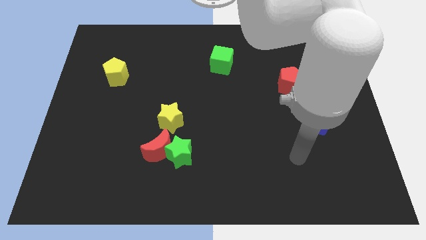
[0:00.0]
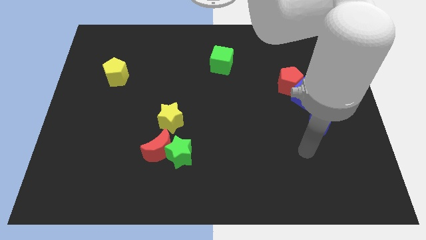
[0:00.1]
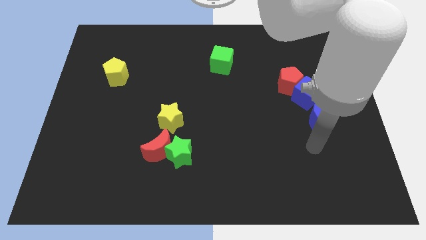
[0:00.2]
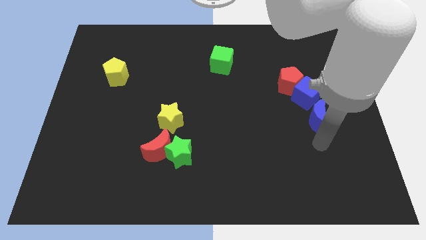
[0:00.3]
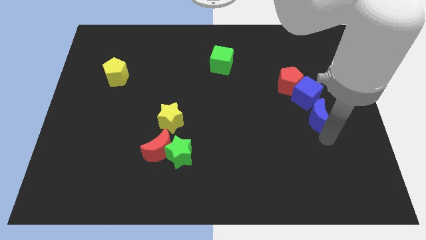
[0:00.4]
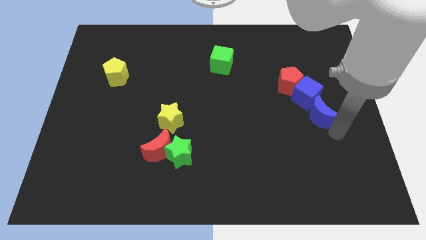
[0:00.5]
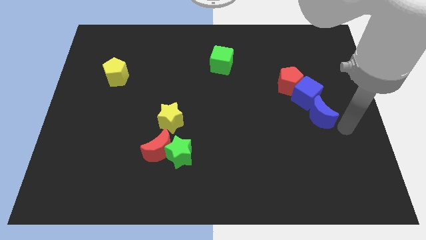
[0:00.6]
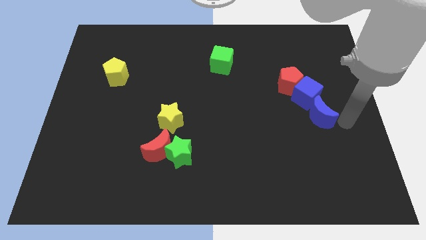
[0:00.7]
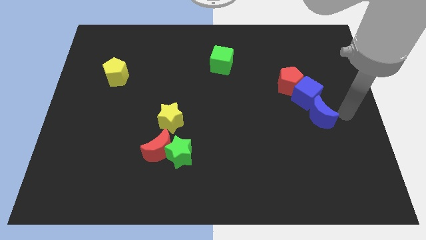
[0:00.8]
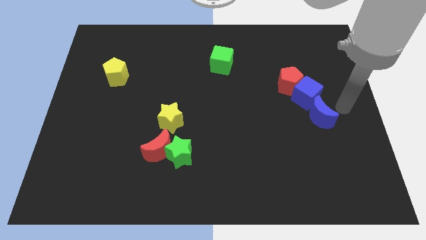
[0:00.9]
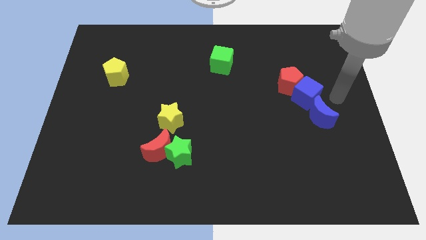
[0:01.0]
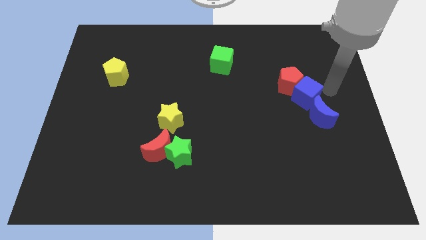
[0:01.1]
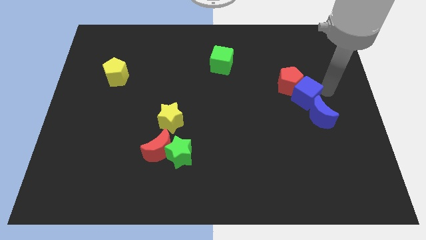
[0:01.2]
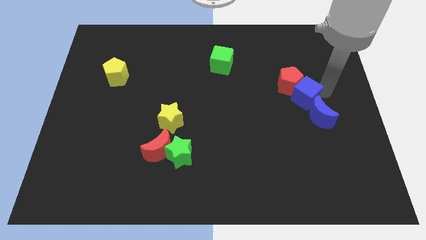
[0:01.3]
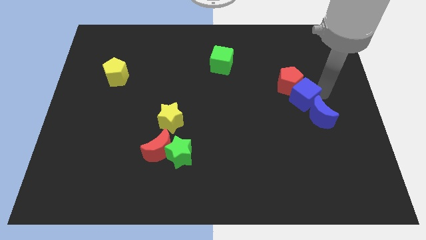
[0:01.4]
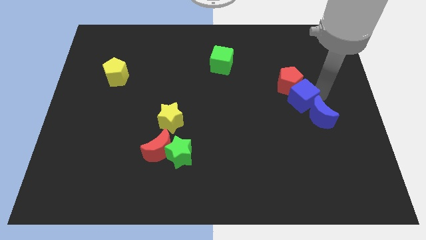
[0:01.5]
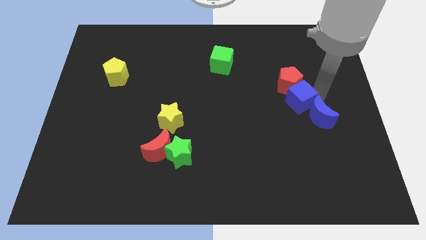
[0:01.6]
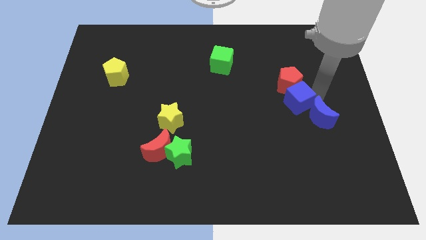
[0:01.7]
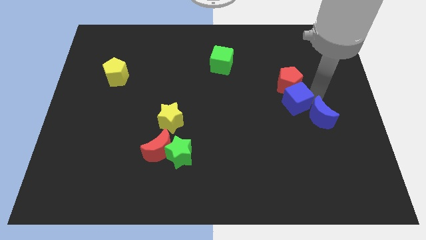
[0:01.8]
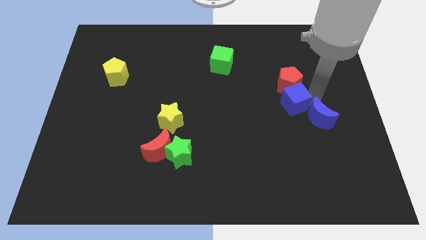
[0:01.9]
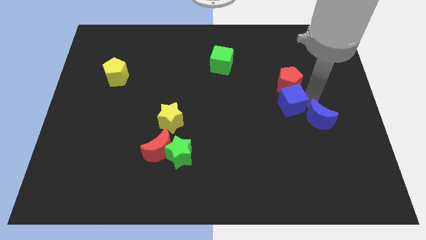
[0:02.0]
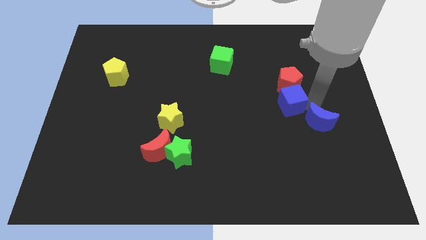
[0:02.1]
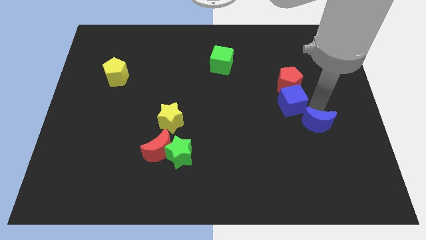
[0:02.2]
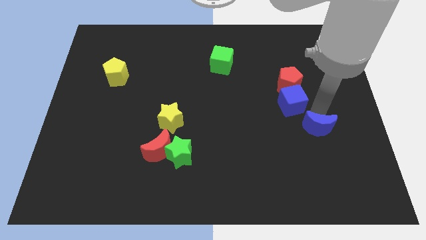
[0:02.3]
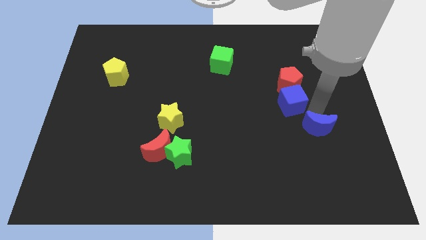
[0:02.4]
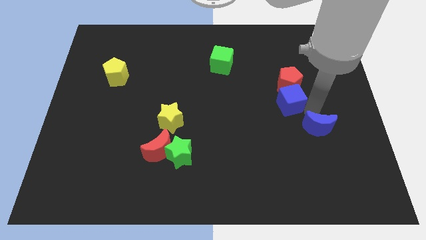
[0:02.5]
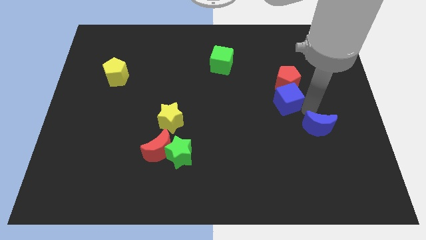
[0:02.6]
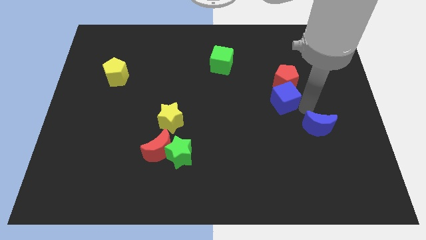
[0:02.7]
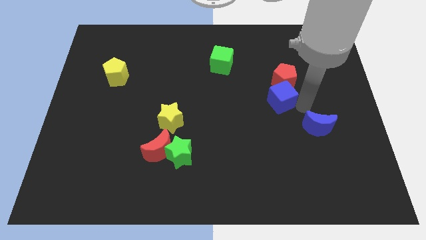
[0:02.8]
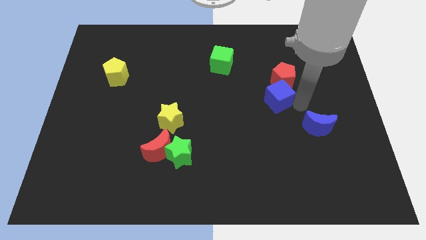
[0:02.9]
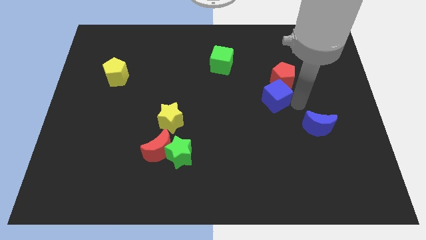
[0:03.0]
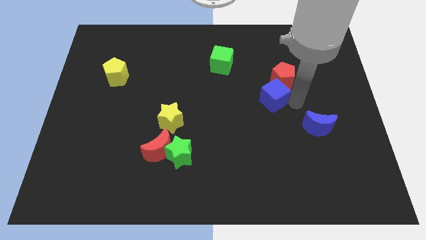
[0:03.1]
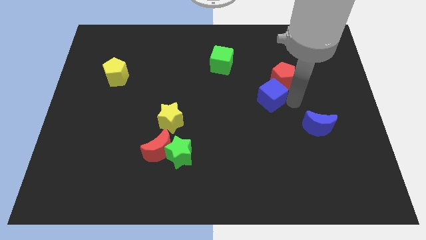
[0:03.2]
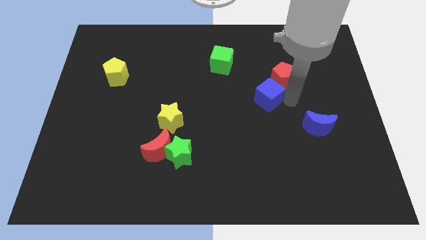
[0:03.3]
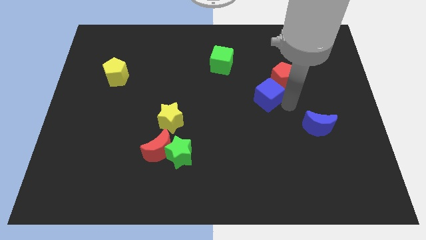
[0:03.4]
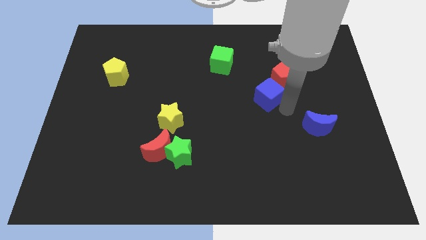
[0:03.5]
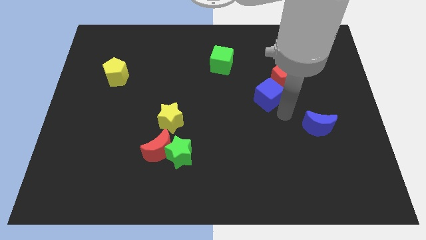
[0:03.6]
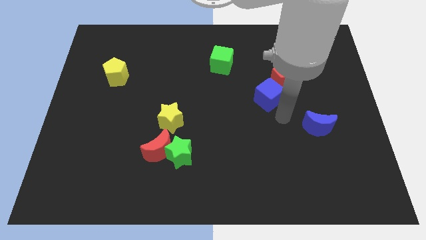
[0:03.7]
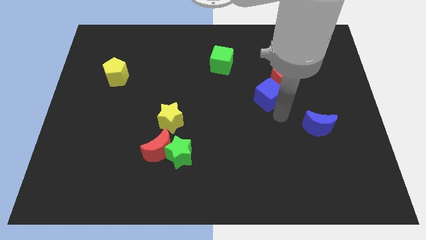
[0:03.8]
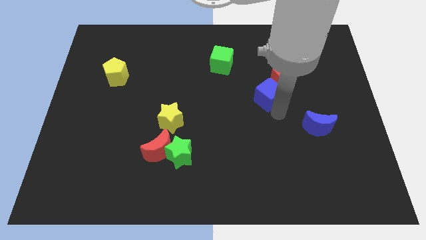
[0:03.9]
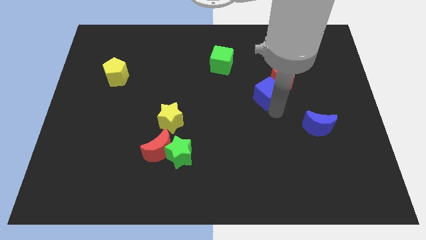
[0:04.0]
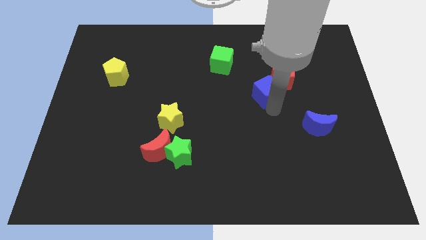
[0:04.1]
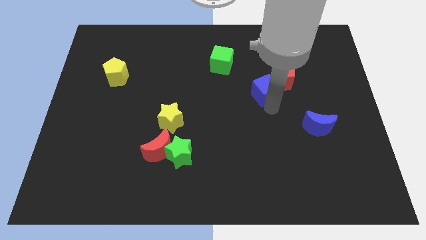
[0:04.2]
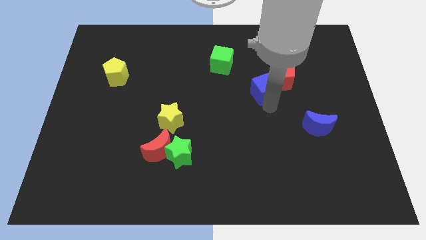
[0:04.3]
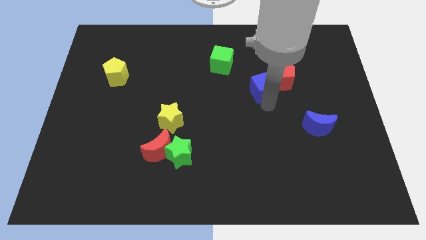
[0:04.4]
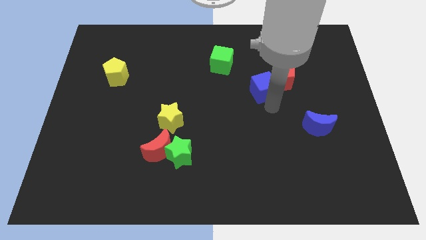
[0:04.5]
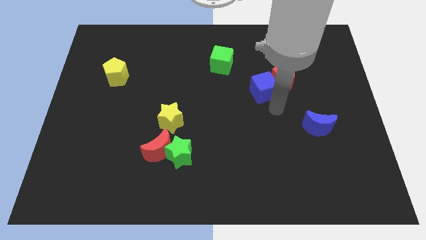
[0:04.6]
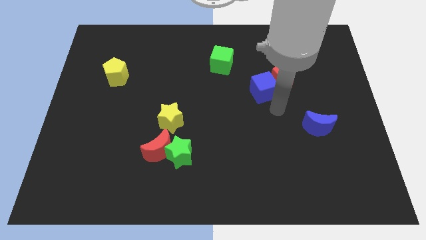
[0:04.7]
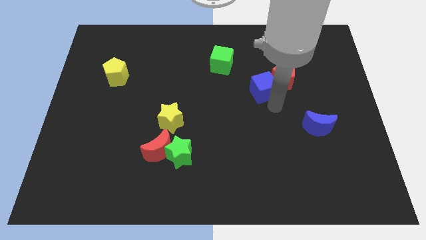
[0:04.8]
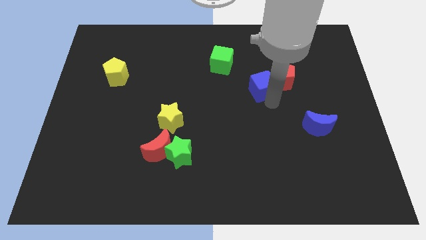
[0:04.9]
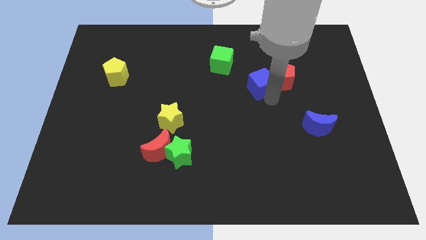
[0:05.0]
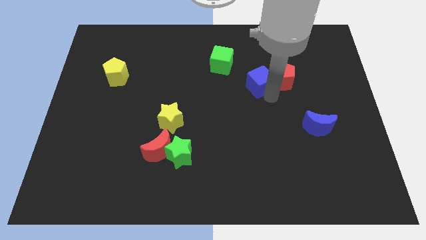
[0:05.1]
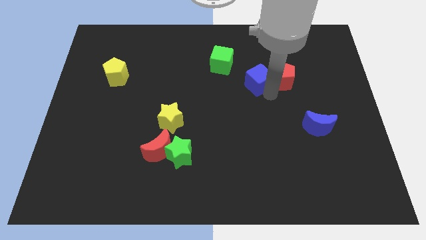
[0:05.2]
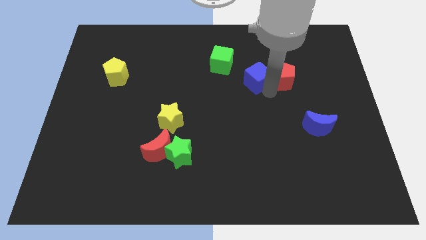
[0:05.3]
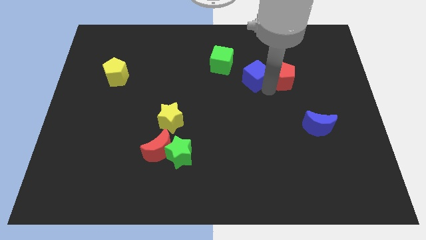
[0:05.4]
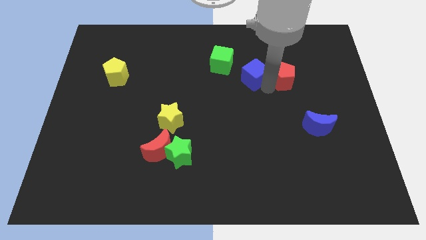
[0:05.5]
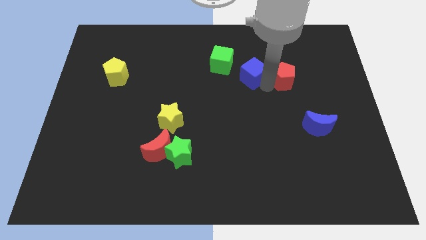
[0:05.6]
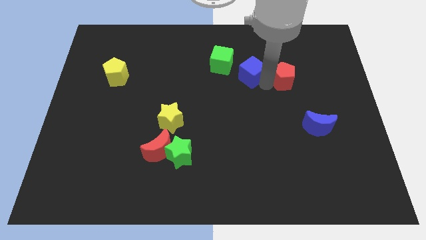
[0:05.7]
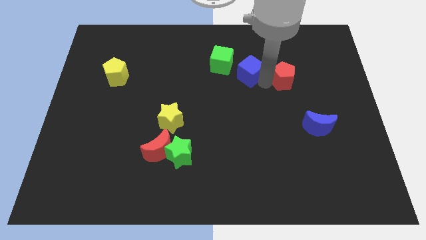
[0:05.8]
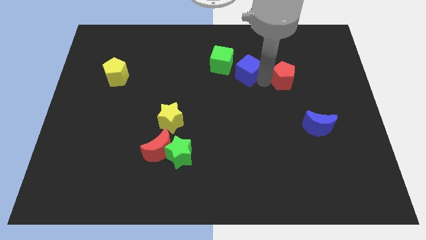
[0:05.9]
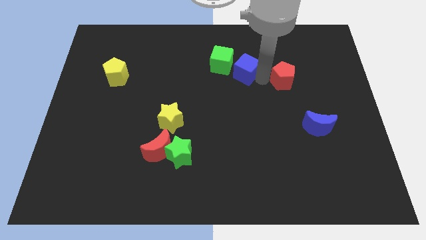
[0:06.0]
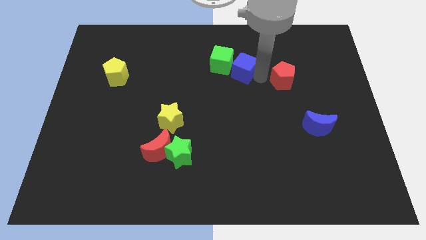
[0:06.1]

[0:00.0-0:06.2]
put the blue cube towards the green cube

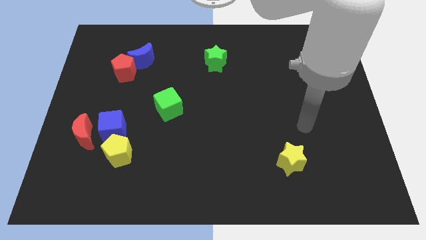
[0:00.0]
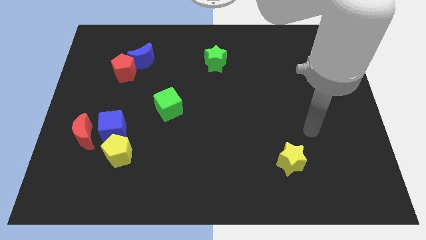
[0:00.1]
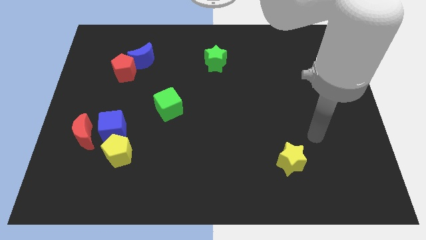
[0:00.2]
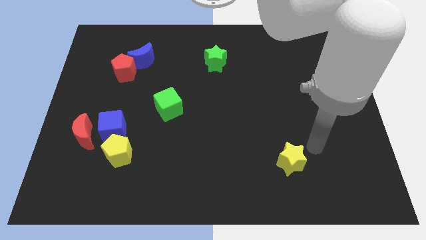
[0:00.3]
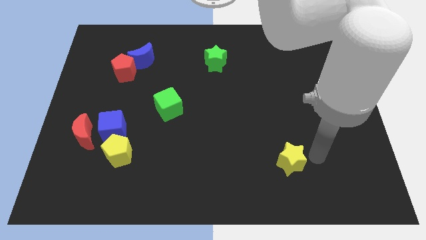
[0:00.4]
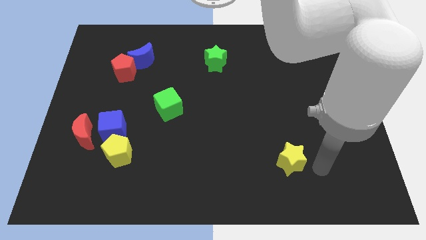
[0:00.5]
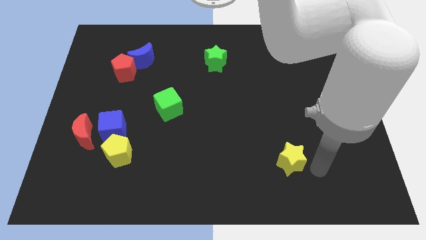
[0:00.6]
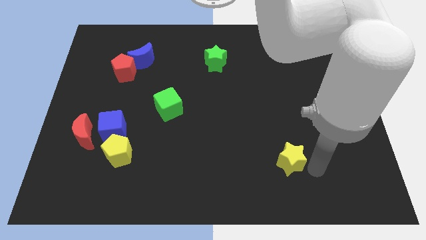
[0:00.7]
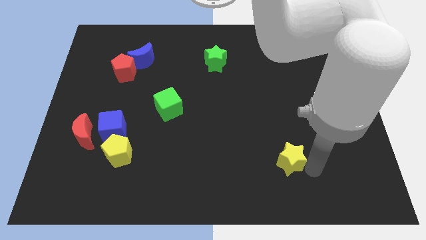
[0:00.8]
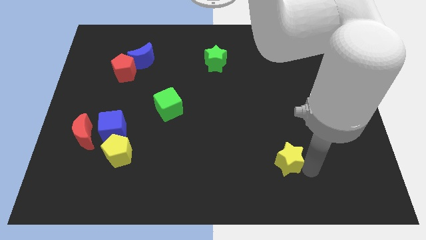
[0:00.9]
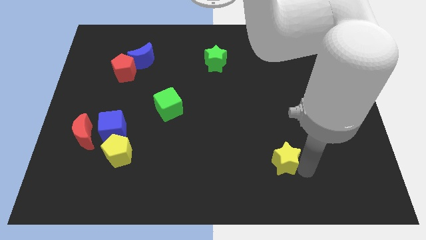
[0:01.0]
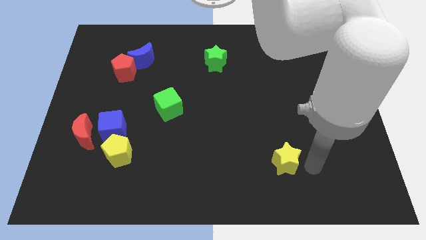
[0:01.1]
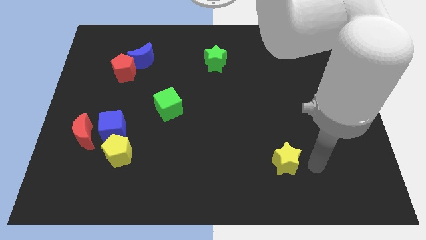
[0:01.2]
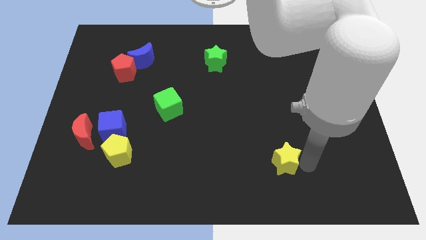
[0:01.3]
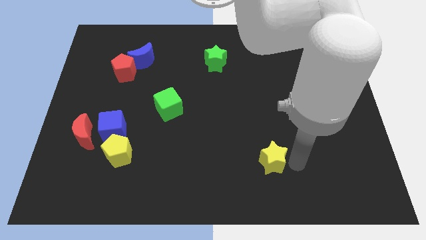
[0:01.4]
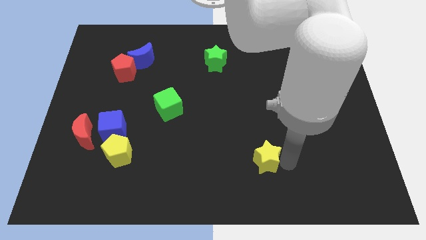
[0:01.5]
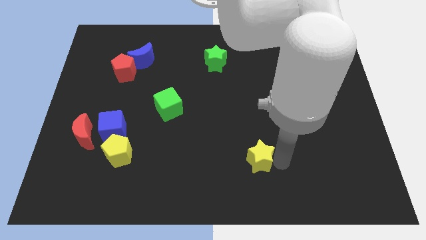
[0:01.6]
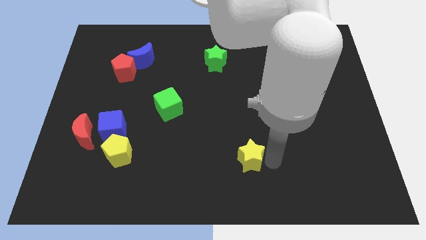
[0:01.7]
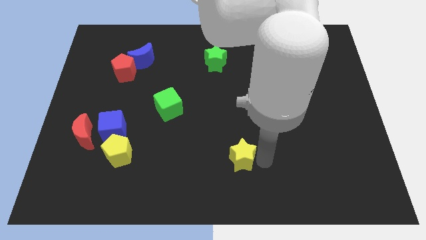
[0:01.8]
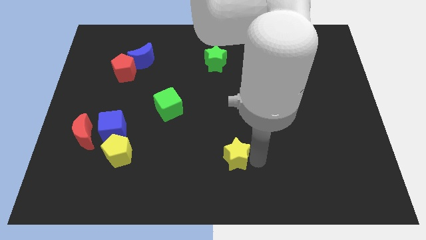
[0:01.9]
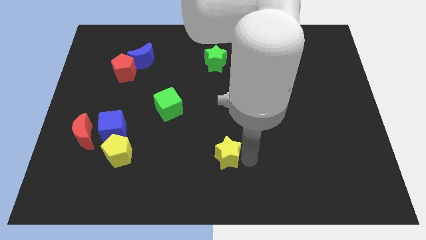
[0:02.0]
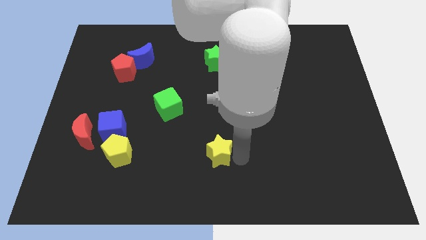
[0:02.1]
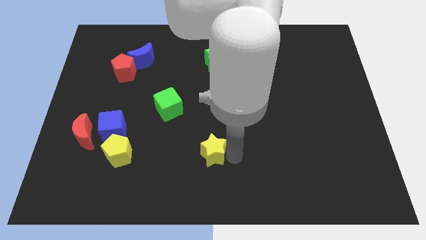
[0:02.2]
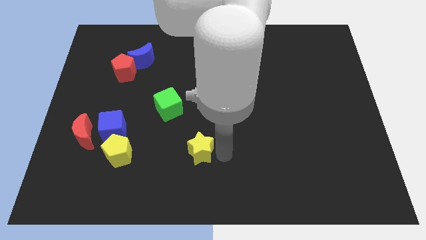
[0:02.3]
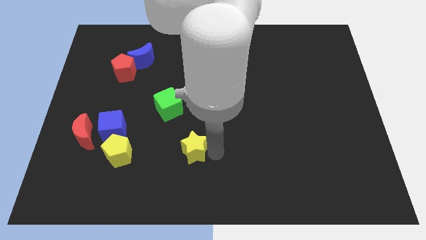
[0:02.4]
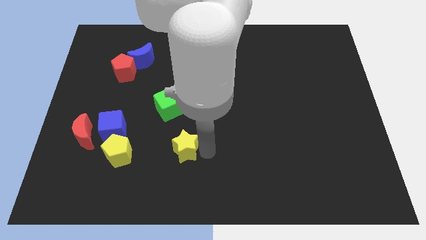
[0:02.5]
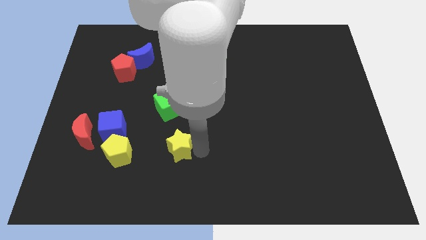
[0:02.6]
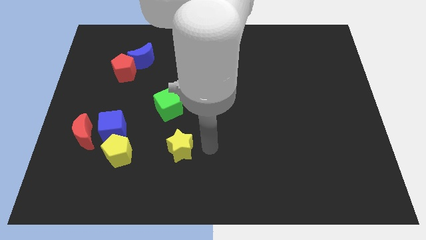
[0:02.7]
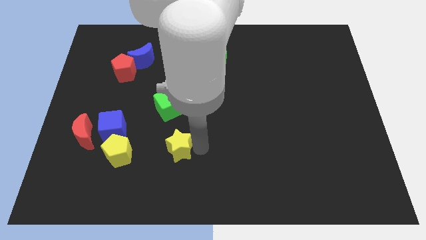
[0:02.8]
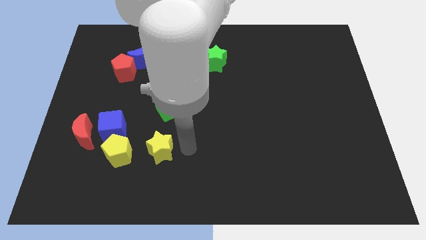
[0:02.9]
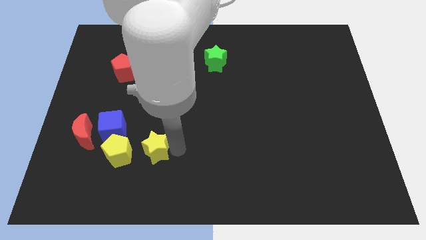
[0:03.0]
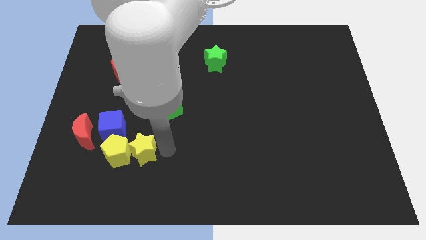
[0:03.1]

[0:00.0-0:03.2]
push the yellow star towards the yellow pentagon
